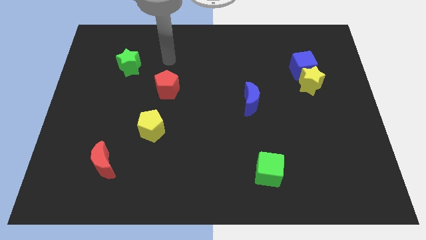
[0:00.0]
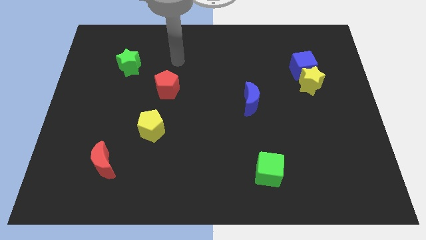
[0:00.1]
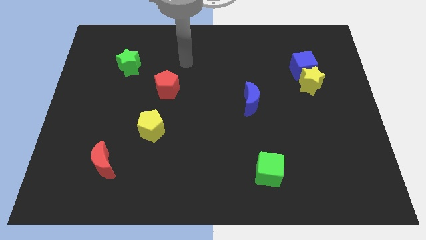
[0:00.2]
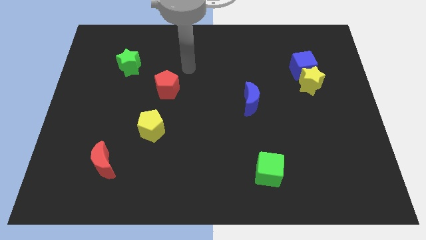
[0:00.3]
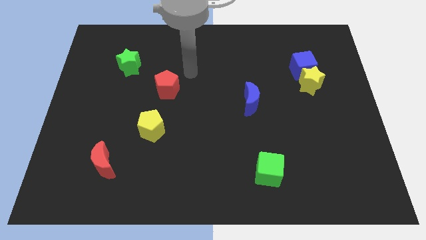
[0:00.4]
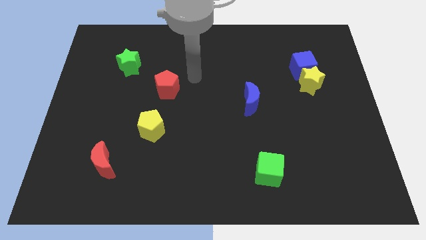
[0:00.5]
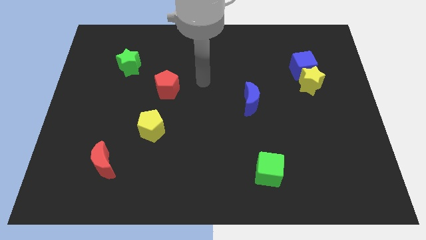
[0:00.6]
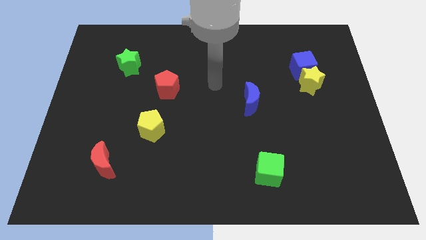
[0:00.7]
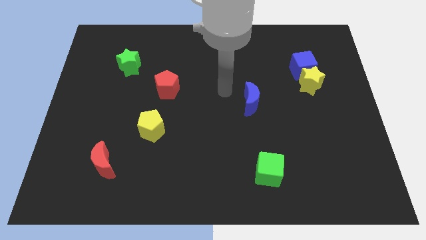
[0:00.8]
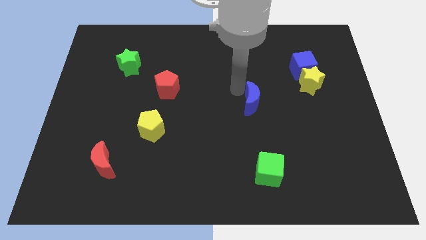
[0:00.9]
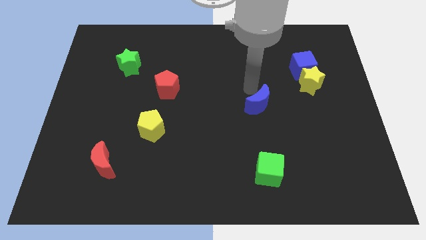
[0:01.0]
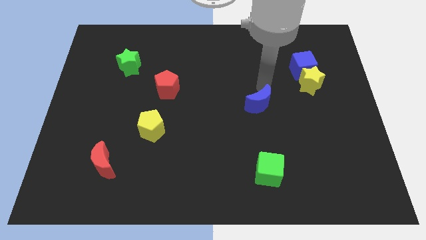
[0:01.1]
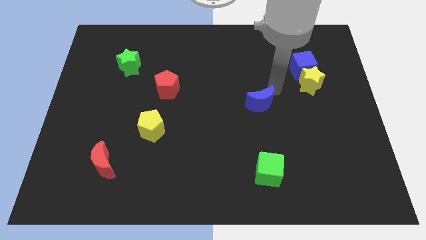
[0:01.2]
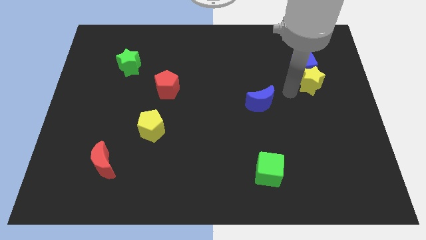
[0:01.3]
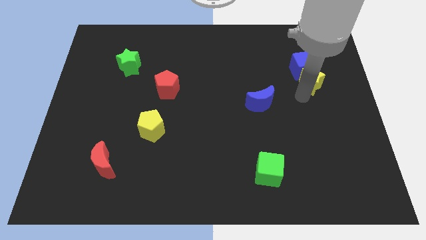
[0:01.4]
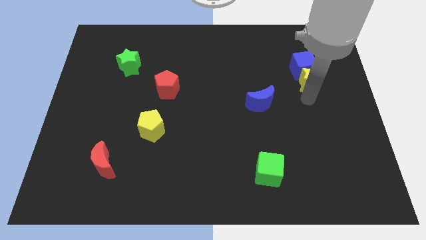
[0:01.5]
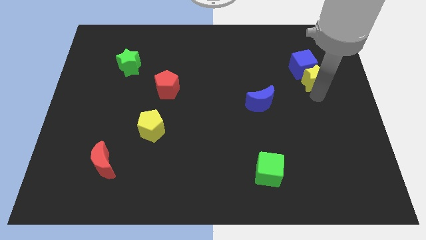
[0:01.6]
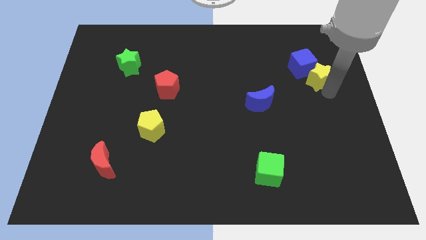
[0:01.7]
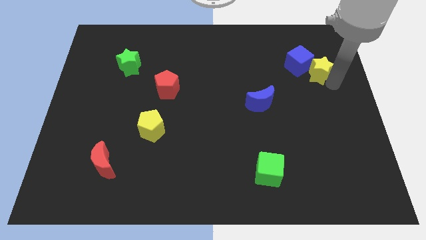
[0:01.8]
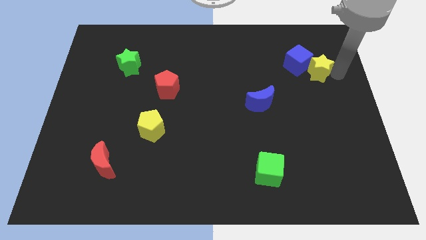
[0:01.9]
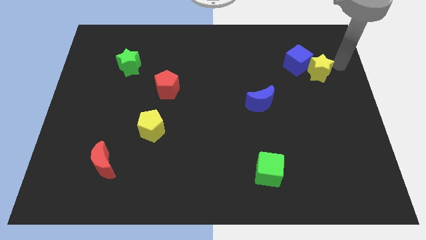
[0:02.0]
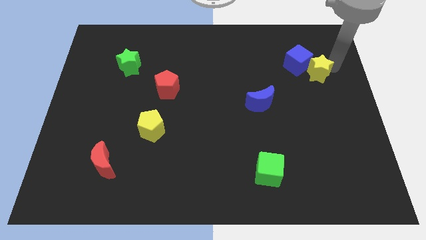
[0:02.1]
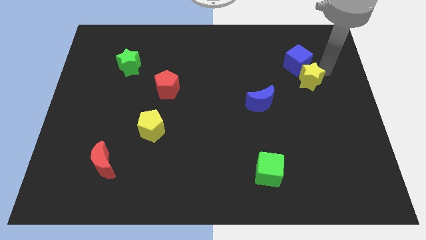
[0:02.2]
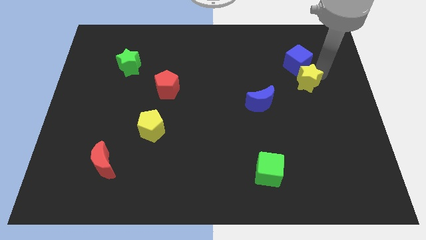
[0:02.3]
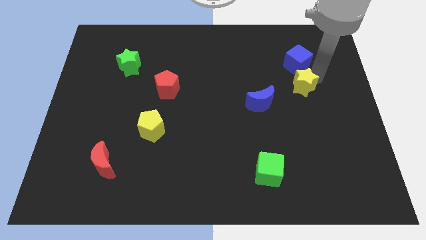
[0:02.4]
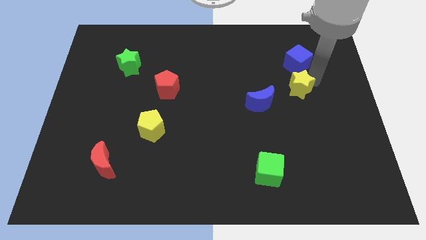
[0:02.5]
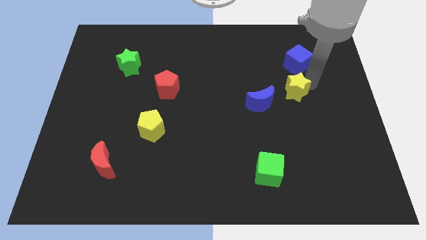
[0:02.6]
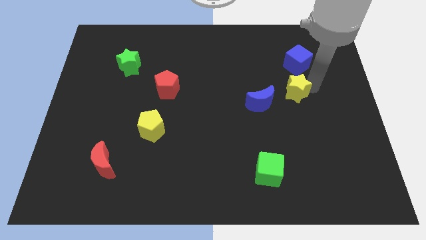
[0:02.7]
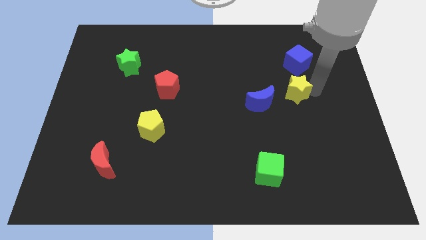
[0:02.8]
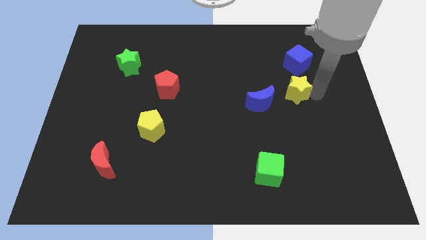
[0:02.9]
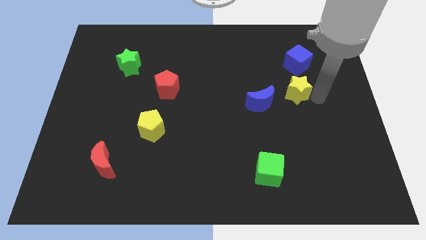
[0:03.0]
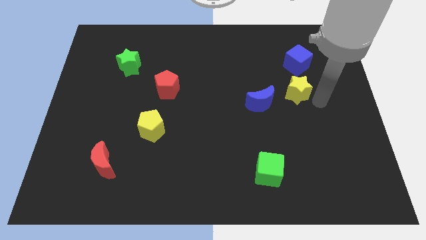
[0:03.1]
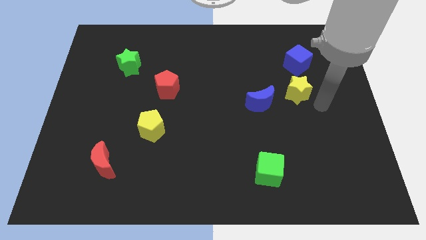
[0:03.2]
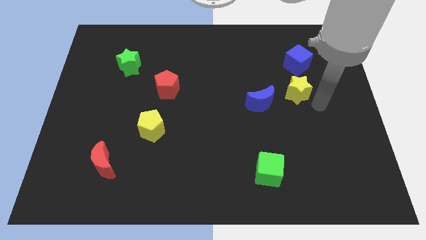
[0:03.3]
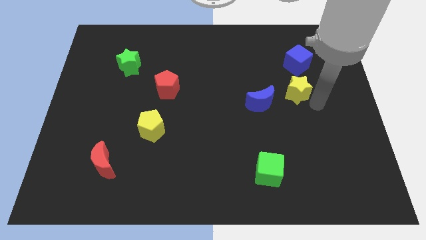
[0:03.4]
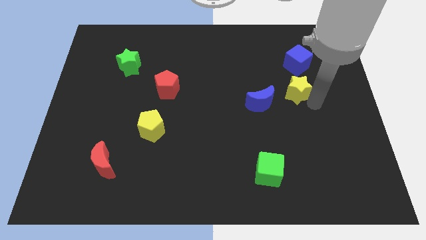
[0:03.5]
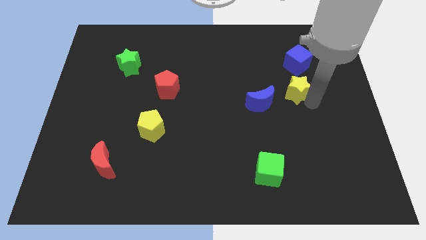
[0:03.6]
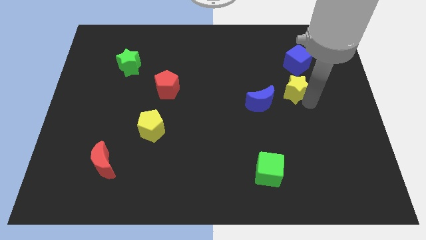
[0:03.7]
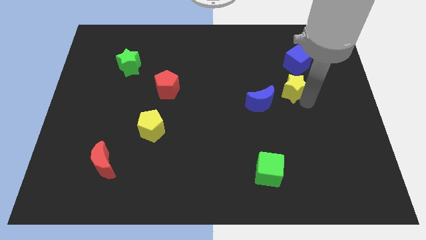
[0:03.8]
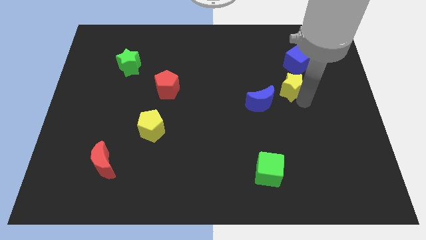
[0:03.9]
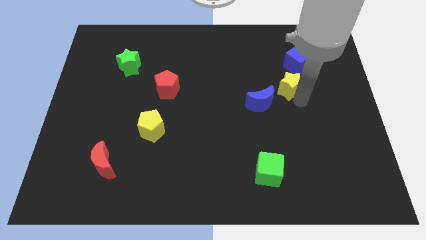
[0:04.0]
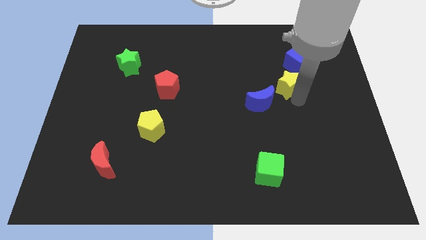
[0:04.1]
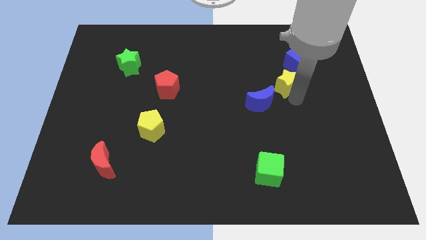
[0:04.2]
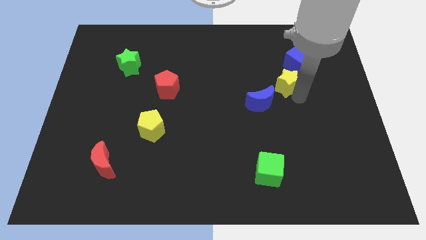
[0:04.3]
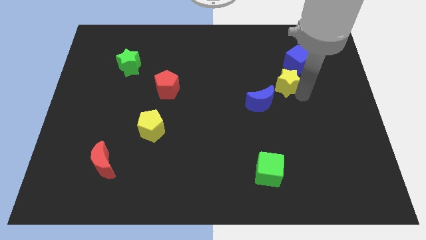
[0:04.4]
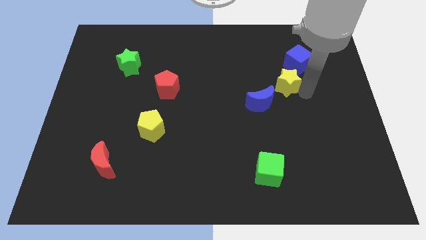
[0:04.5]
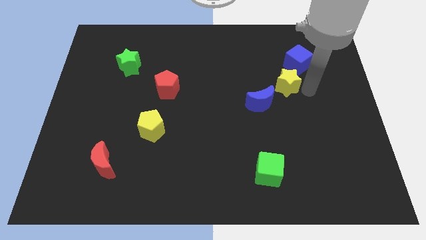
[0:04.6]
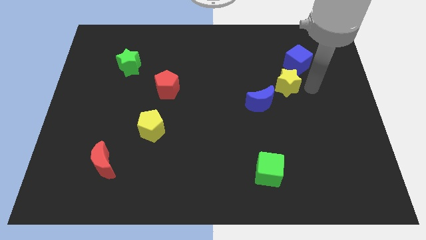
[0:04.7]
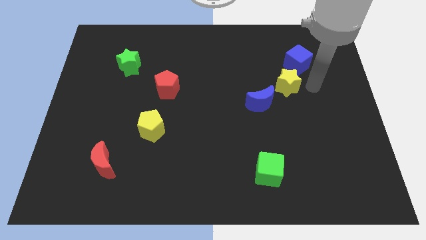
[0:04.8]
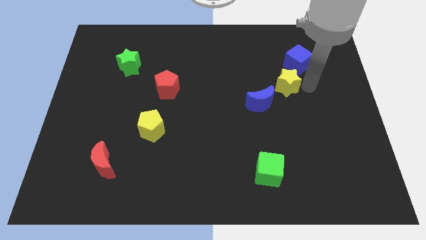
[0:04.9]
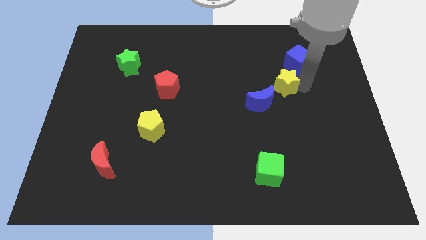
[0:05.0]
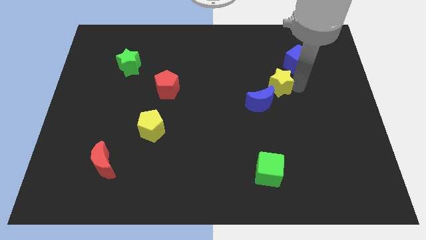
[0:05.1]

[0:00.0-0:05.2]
move the yellow star left a bit

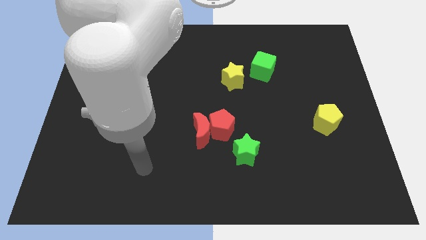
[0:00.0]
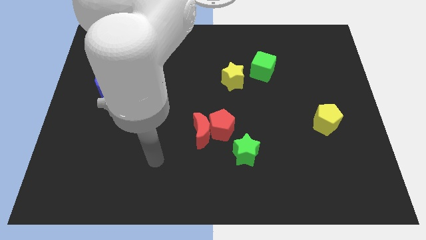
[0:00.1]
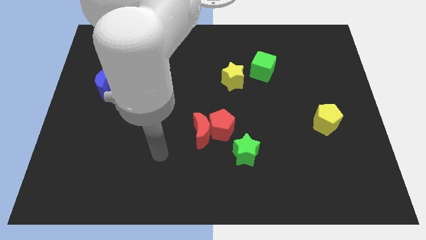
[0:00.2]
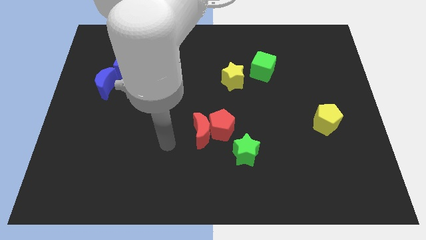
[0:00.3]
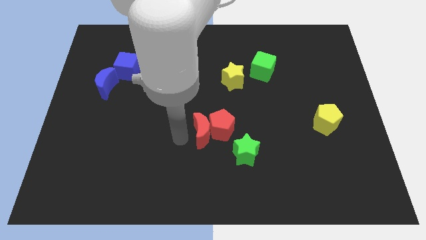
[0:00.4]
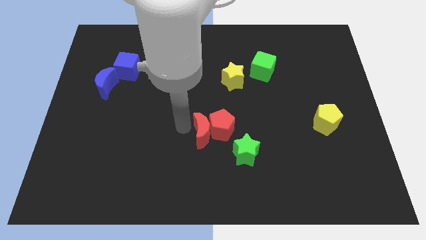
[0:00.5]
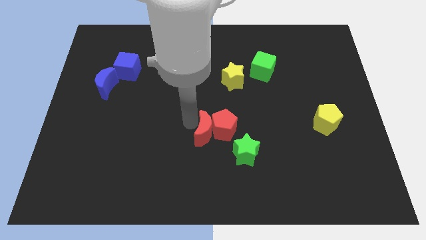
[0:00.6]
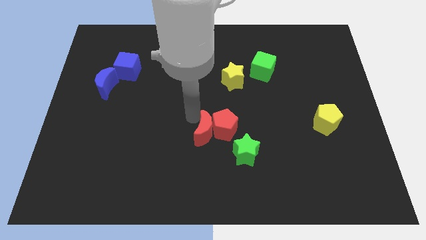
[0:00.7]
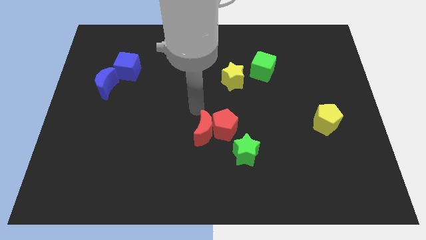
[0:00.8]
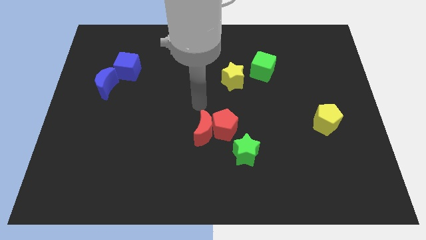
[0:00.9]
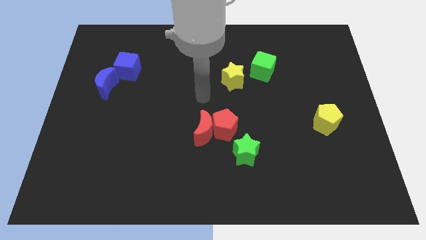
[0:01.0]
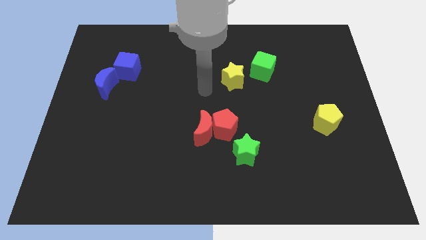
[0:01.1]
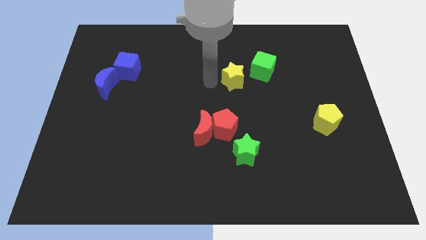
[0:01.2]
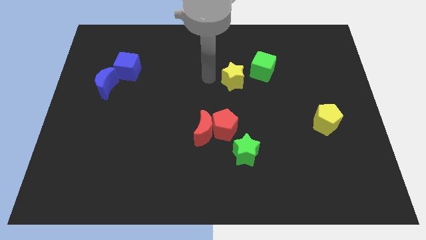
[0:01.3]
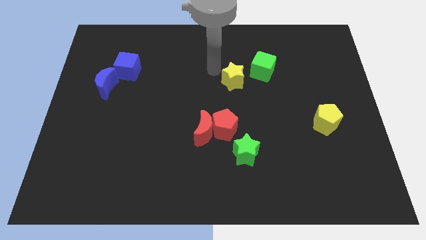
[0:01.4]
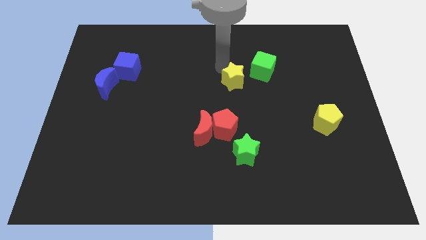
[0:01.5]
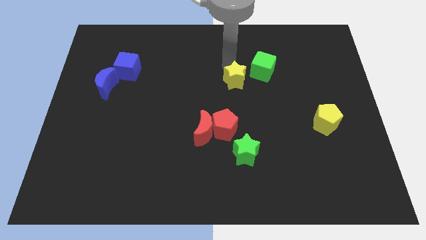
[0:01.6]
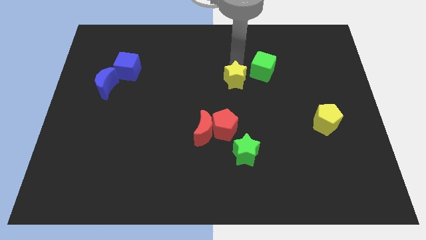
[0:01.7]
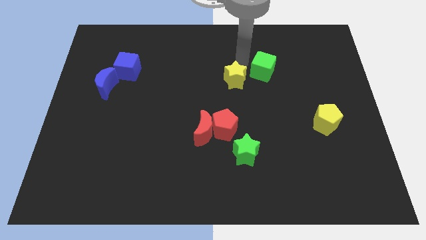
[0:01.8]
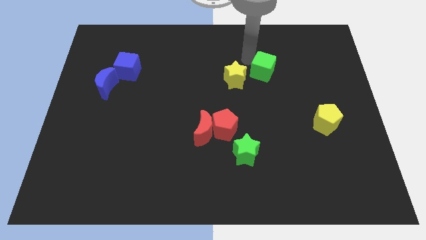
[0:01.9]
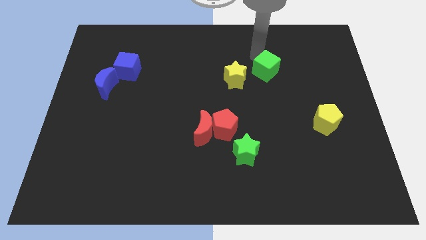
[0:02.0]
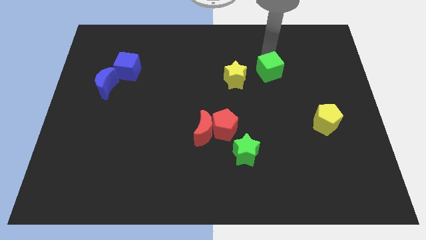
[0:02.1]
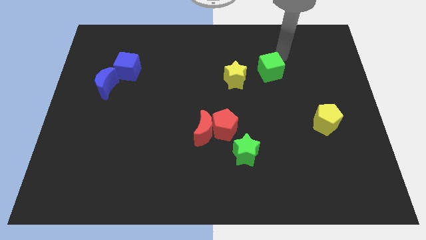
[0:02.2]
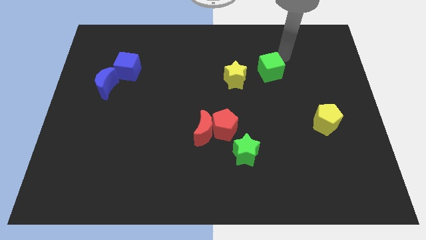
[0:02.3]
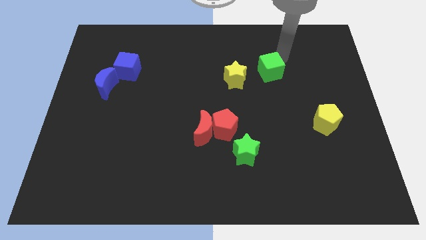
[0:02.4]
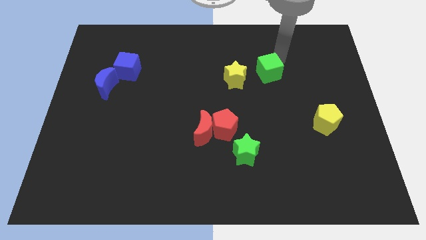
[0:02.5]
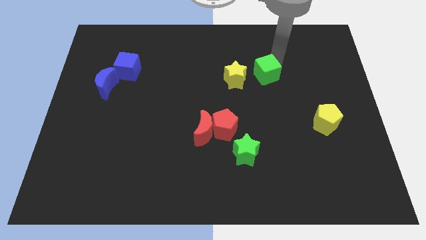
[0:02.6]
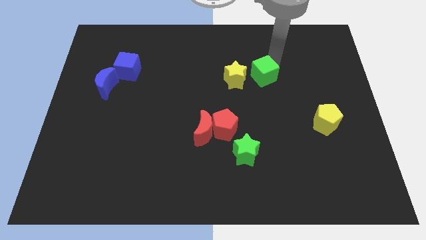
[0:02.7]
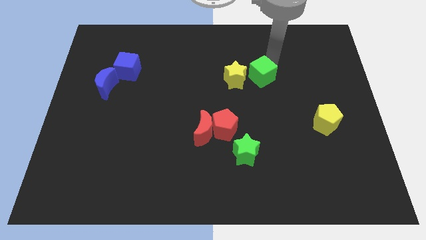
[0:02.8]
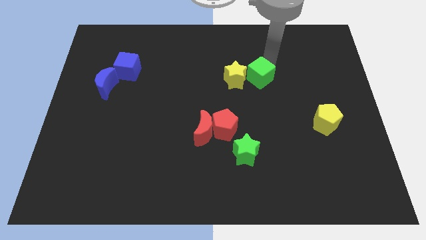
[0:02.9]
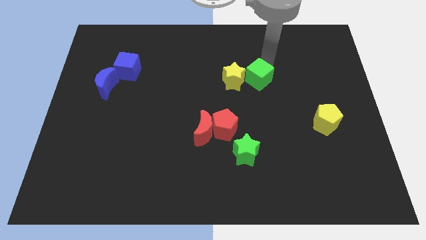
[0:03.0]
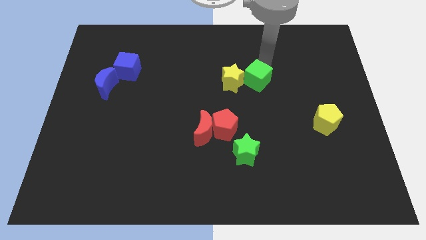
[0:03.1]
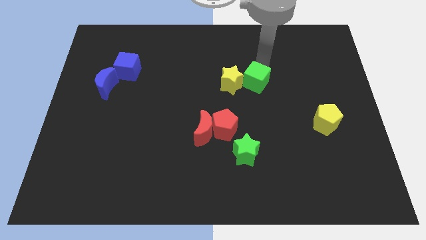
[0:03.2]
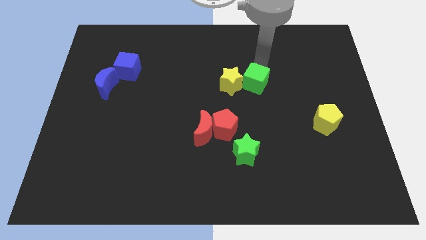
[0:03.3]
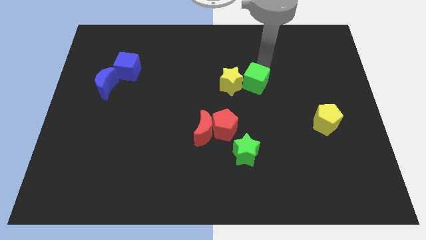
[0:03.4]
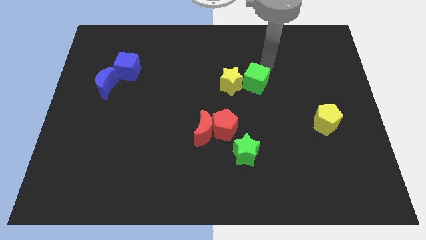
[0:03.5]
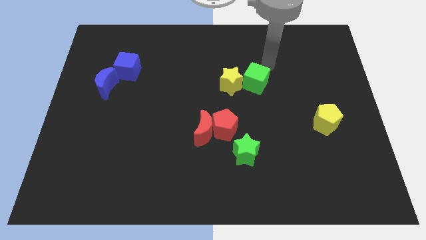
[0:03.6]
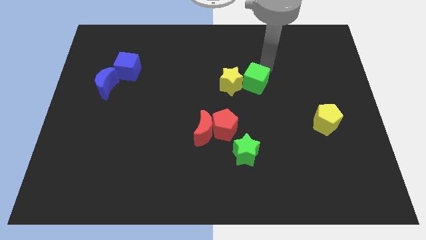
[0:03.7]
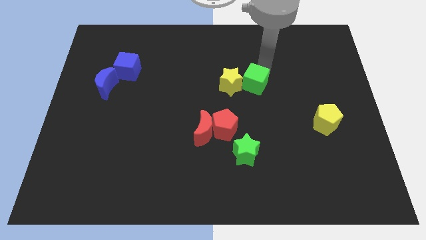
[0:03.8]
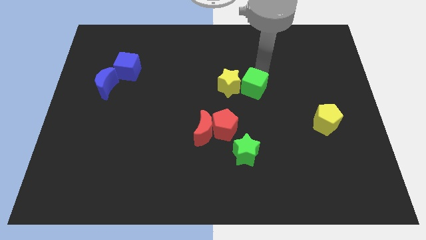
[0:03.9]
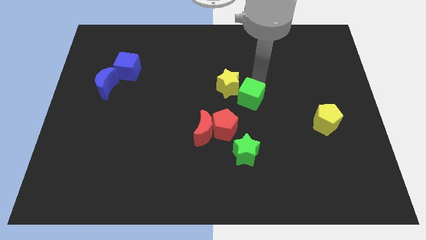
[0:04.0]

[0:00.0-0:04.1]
slightly push the green cube down and left
